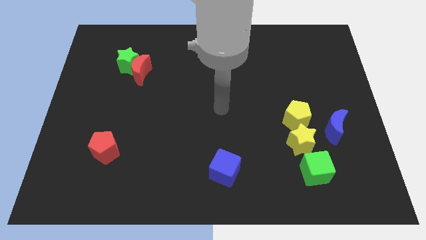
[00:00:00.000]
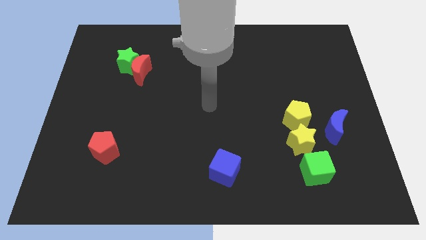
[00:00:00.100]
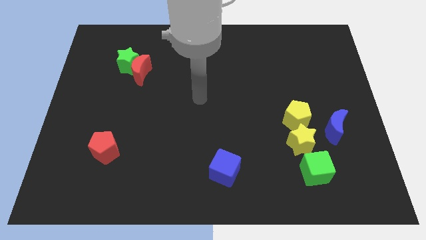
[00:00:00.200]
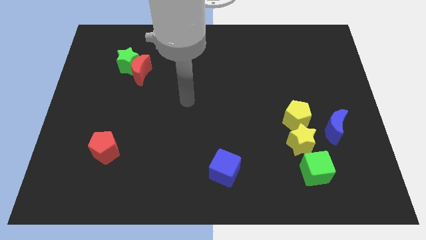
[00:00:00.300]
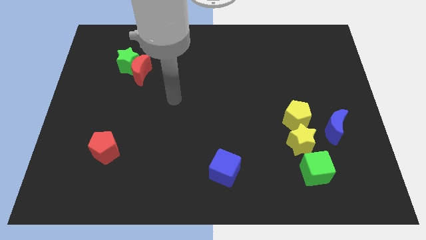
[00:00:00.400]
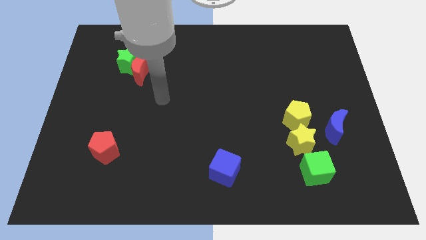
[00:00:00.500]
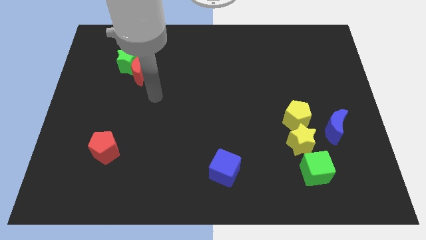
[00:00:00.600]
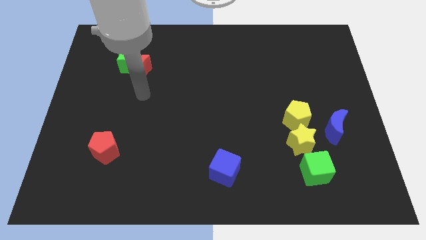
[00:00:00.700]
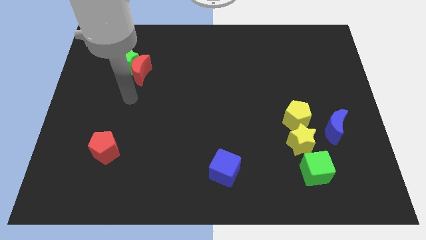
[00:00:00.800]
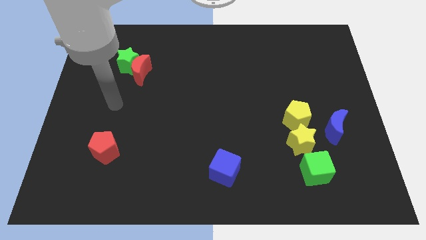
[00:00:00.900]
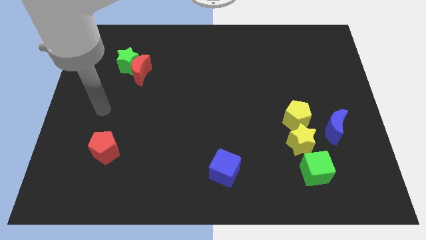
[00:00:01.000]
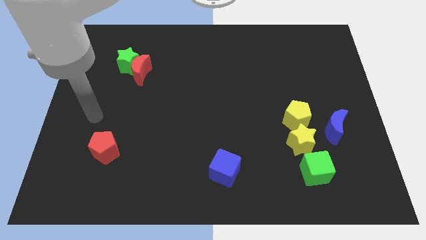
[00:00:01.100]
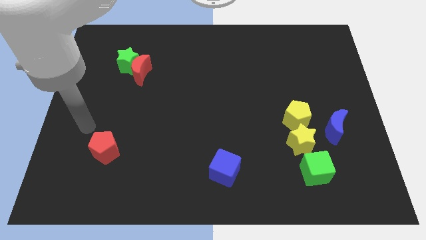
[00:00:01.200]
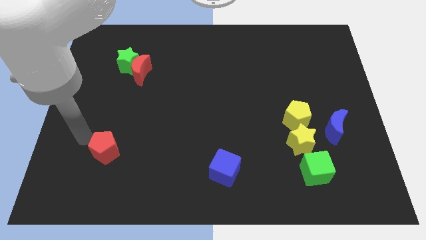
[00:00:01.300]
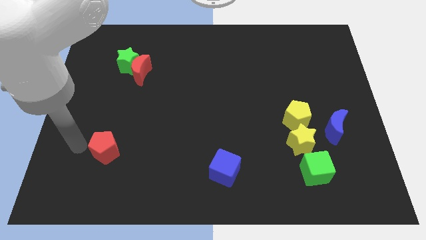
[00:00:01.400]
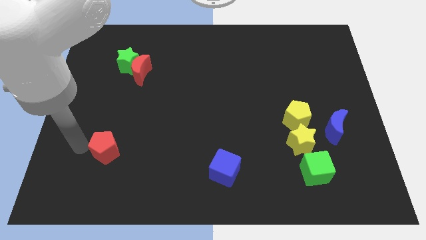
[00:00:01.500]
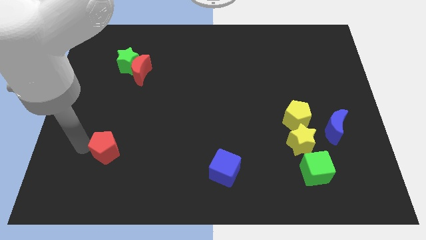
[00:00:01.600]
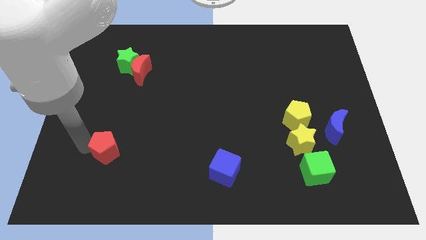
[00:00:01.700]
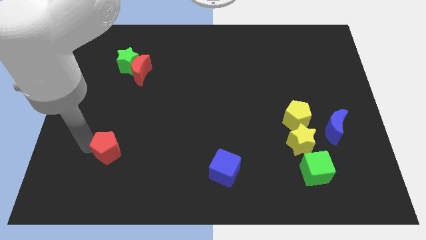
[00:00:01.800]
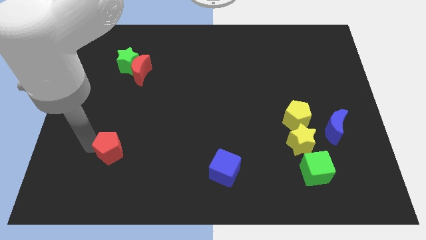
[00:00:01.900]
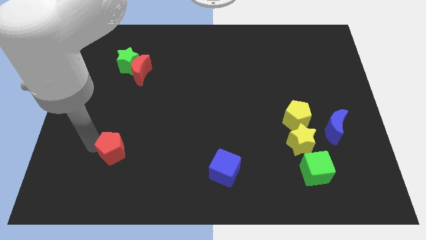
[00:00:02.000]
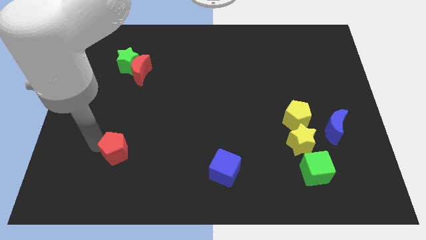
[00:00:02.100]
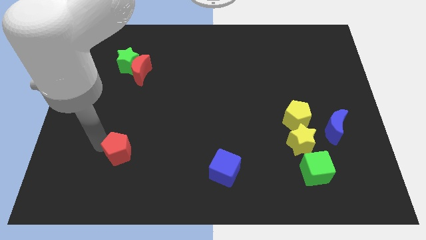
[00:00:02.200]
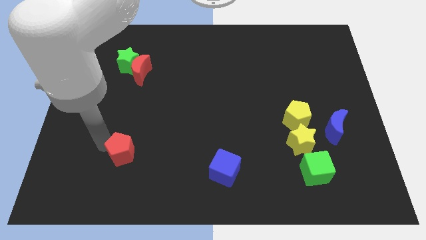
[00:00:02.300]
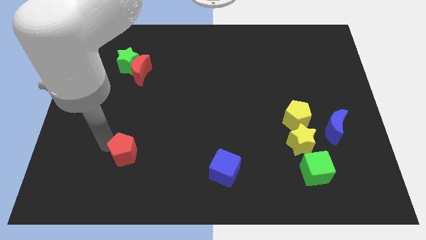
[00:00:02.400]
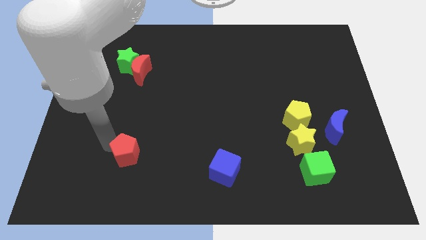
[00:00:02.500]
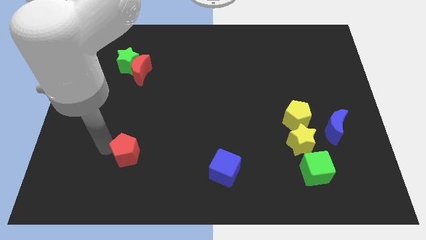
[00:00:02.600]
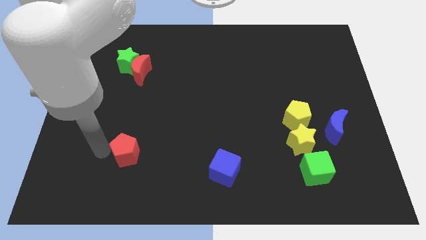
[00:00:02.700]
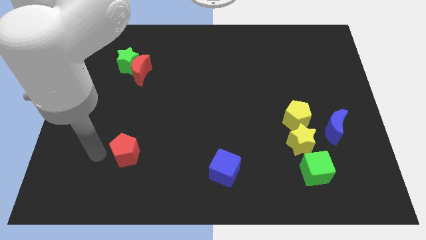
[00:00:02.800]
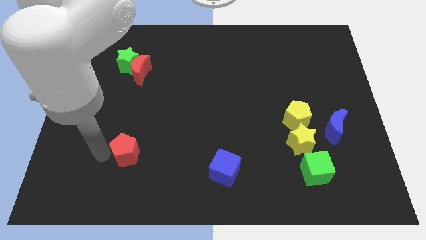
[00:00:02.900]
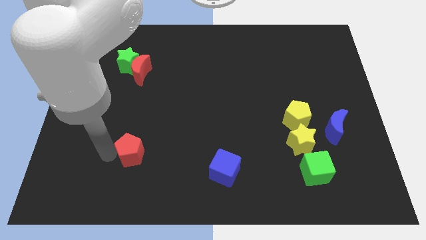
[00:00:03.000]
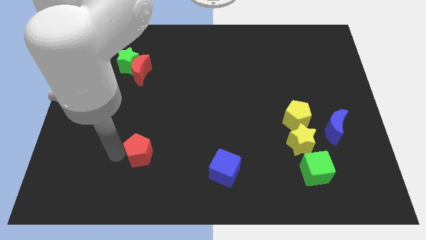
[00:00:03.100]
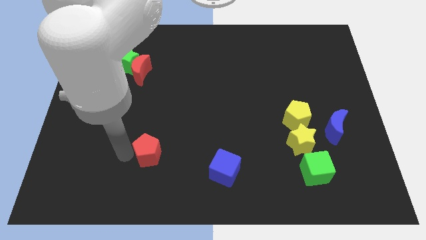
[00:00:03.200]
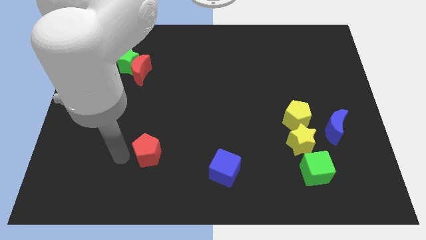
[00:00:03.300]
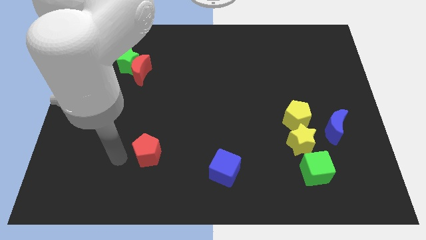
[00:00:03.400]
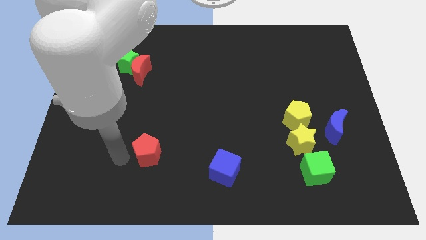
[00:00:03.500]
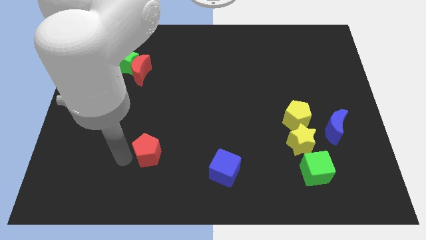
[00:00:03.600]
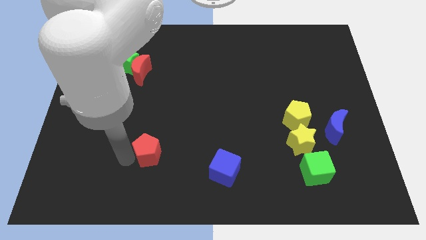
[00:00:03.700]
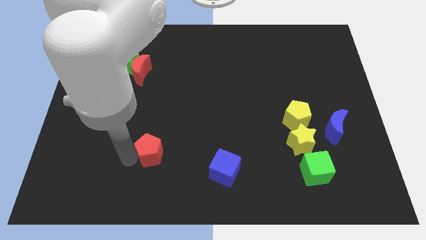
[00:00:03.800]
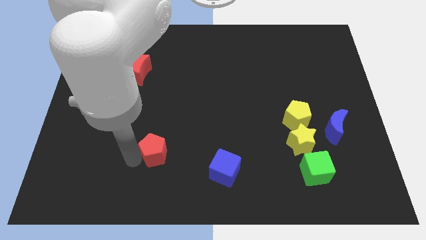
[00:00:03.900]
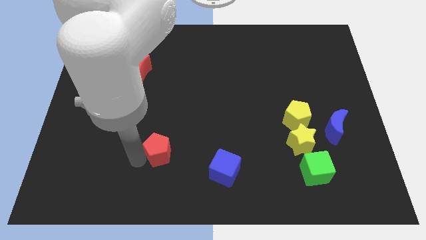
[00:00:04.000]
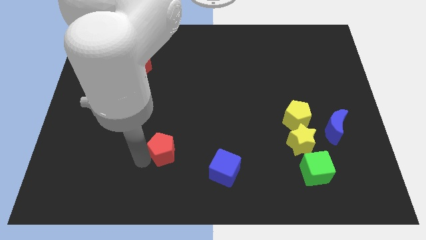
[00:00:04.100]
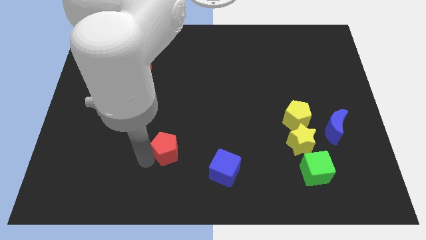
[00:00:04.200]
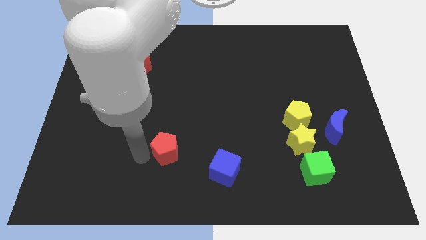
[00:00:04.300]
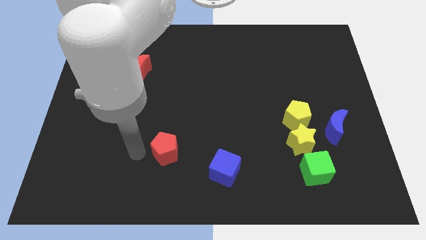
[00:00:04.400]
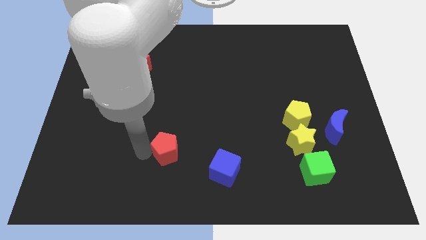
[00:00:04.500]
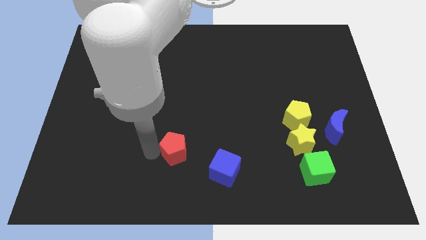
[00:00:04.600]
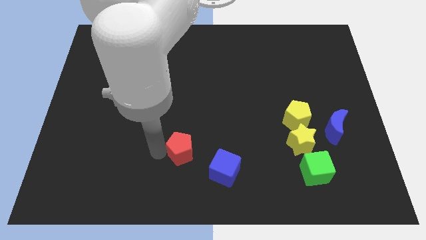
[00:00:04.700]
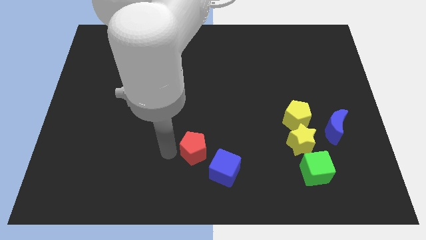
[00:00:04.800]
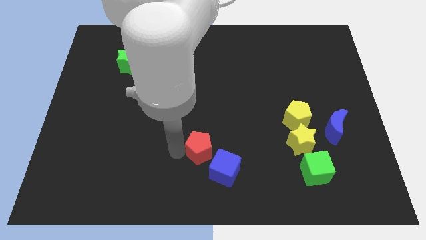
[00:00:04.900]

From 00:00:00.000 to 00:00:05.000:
slide the red pentagon to the right

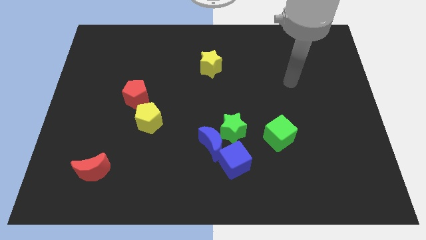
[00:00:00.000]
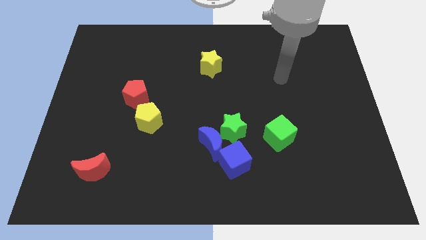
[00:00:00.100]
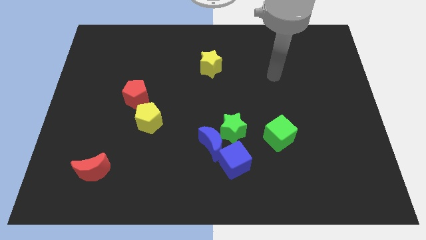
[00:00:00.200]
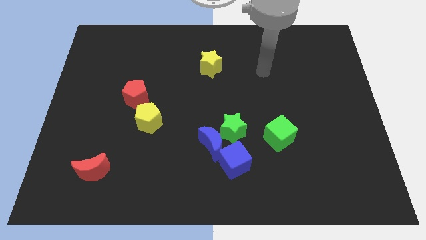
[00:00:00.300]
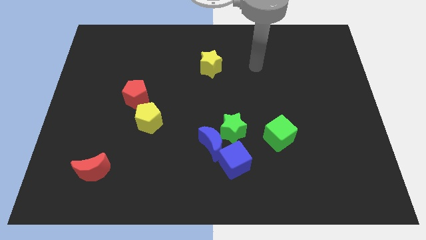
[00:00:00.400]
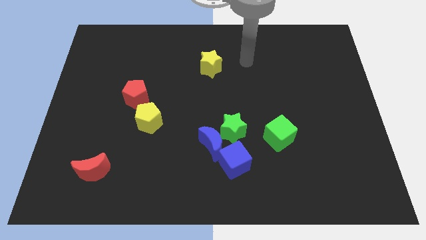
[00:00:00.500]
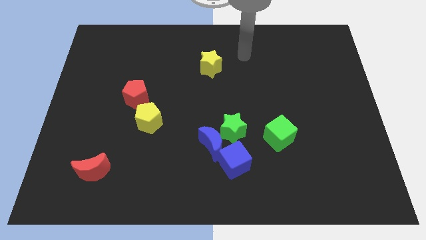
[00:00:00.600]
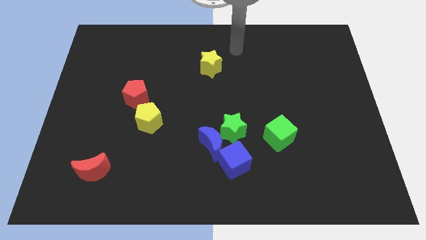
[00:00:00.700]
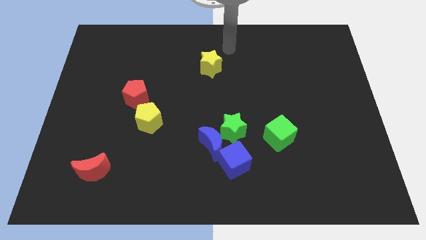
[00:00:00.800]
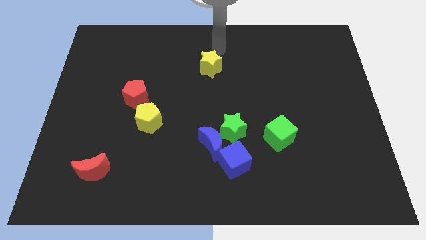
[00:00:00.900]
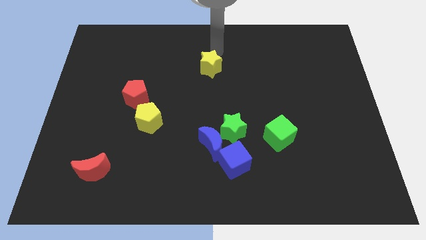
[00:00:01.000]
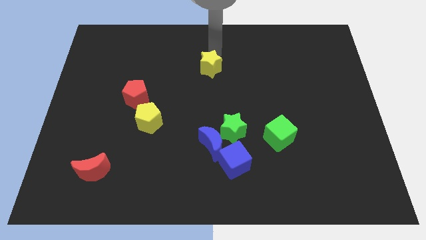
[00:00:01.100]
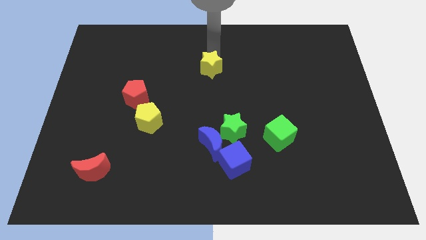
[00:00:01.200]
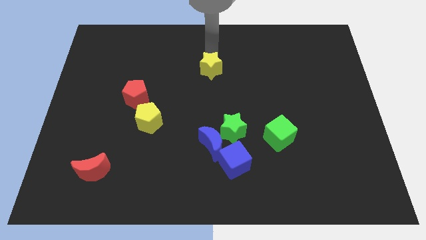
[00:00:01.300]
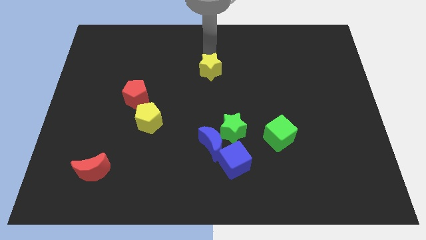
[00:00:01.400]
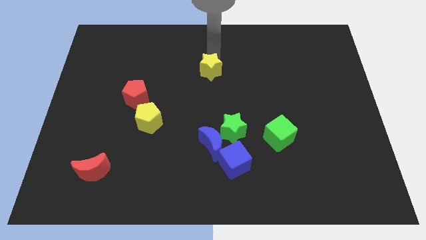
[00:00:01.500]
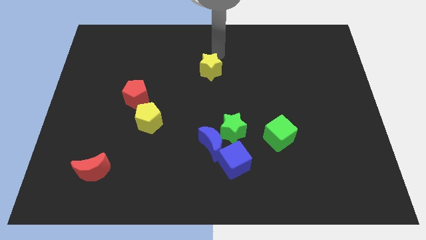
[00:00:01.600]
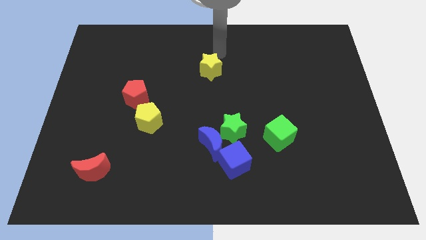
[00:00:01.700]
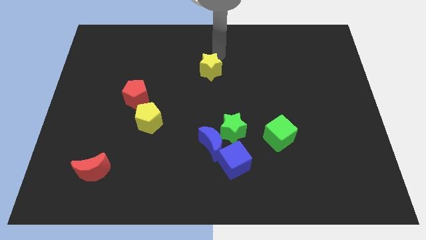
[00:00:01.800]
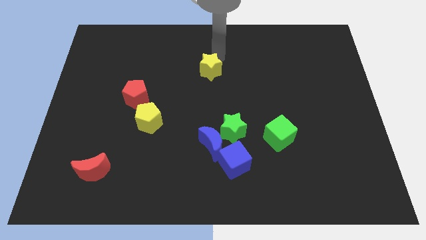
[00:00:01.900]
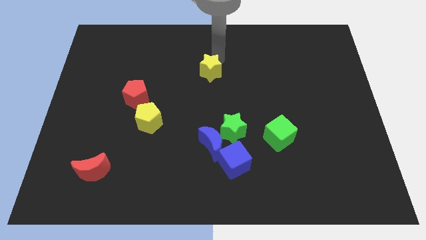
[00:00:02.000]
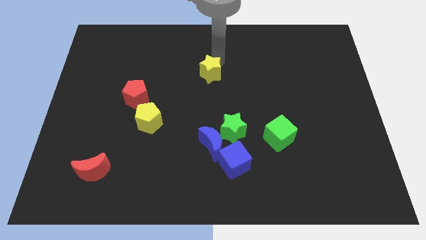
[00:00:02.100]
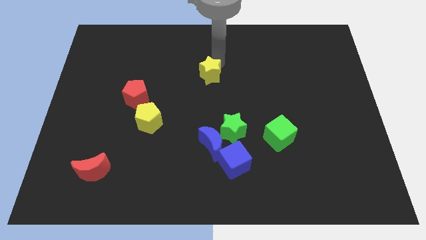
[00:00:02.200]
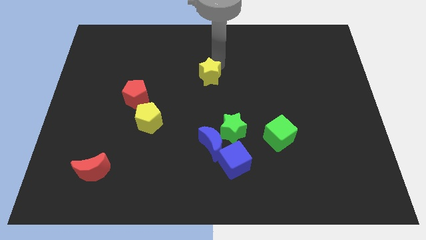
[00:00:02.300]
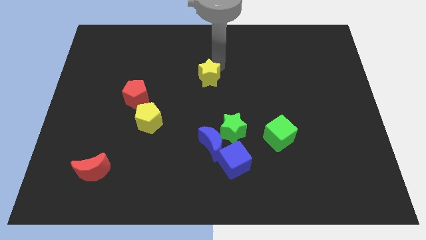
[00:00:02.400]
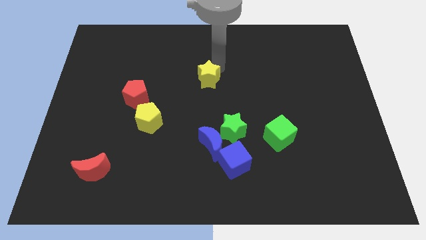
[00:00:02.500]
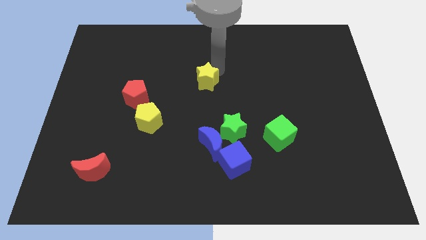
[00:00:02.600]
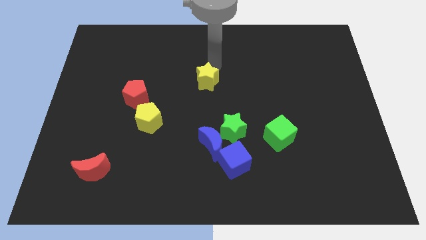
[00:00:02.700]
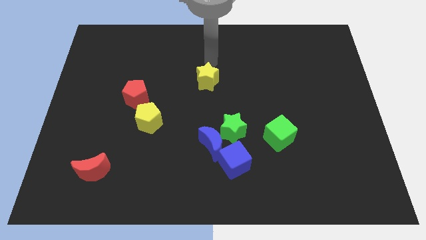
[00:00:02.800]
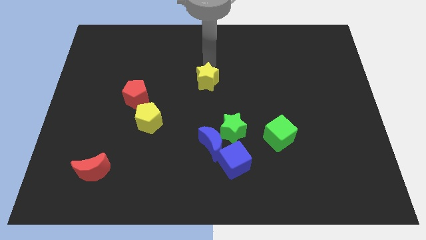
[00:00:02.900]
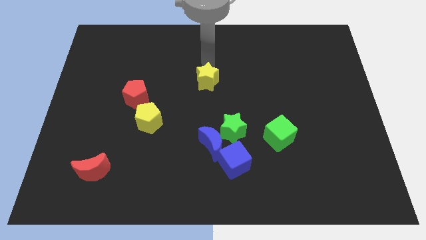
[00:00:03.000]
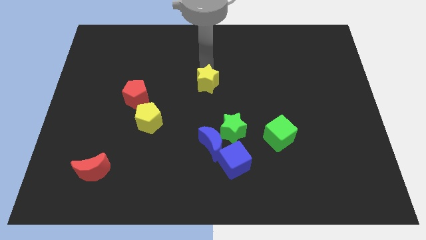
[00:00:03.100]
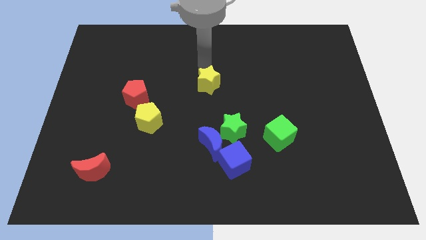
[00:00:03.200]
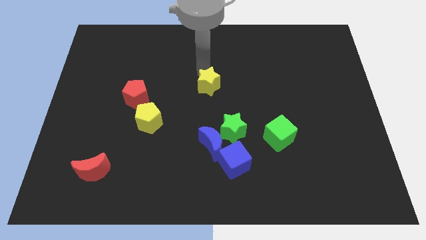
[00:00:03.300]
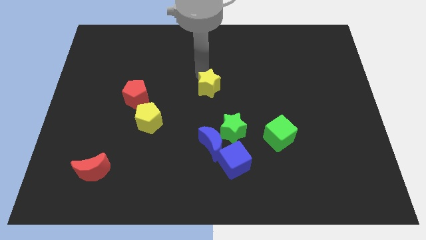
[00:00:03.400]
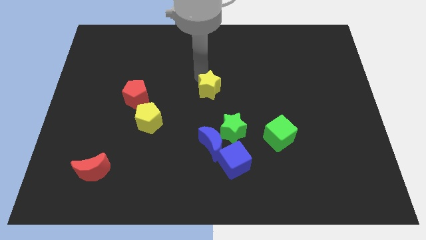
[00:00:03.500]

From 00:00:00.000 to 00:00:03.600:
slightly move the yellow star down
